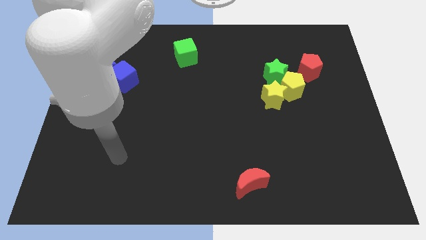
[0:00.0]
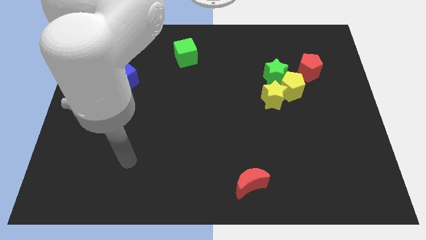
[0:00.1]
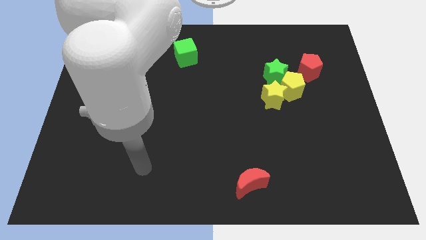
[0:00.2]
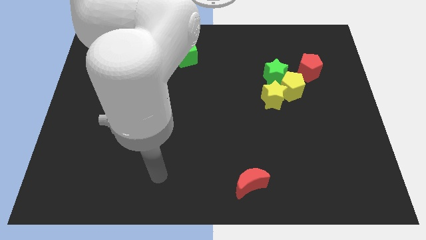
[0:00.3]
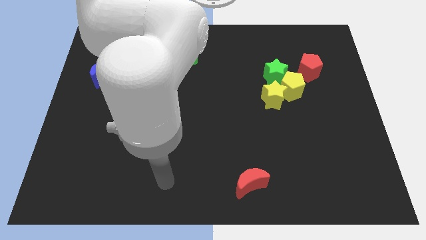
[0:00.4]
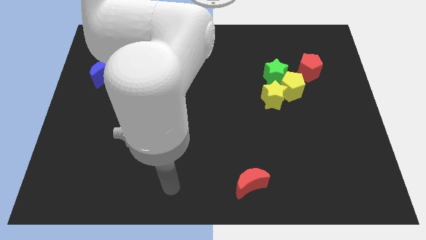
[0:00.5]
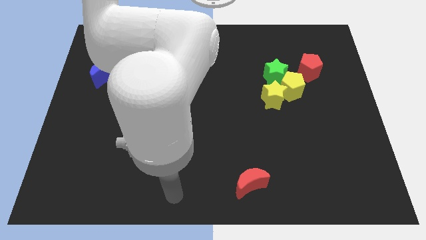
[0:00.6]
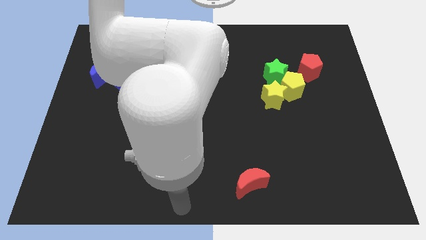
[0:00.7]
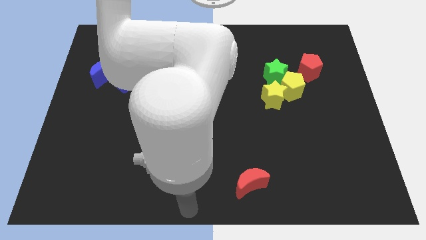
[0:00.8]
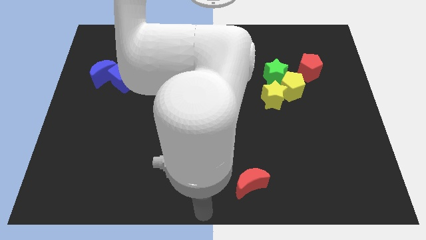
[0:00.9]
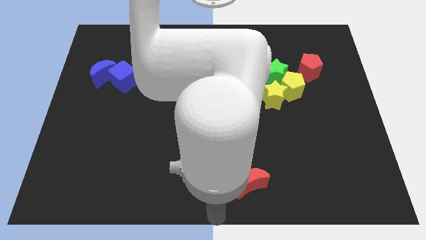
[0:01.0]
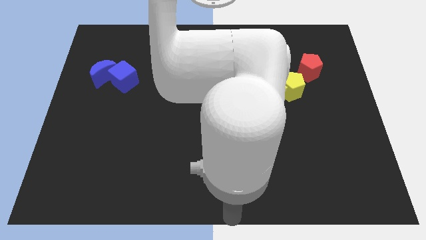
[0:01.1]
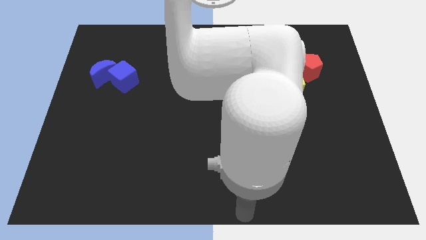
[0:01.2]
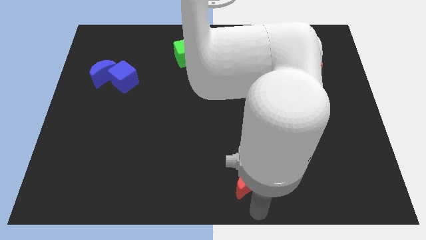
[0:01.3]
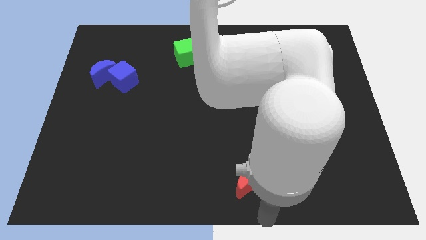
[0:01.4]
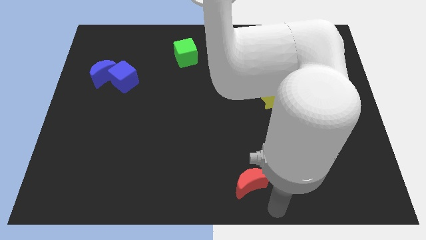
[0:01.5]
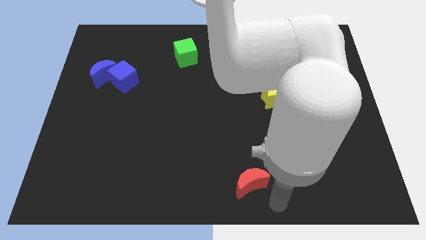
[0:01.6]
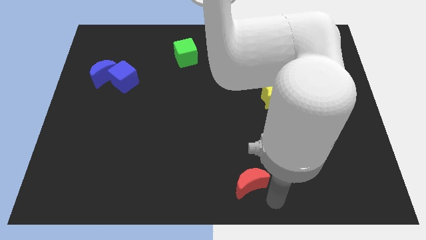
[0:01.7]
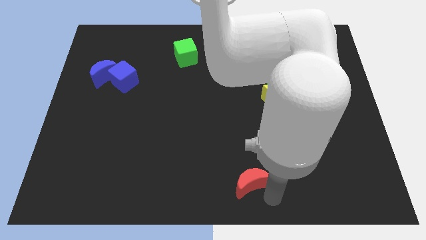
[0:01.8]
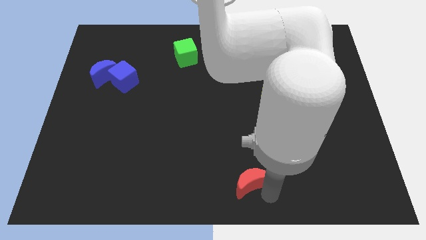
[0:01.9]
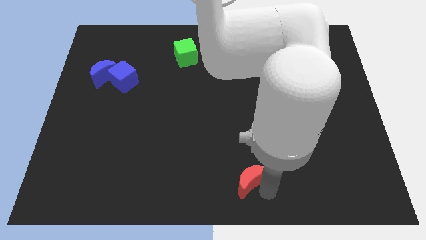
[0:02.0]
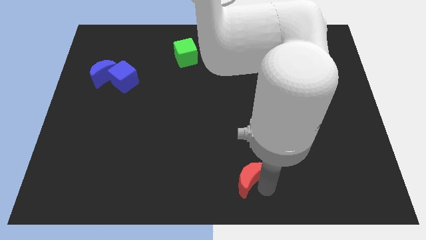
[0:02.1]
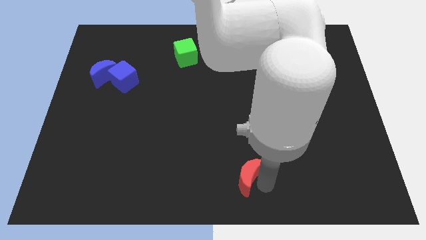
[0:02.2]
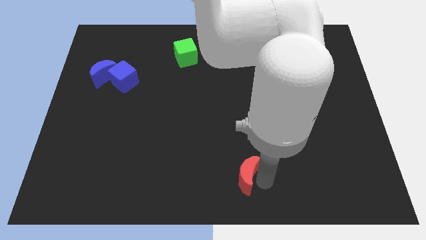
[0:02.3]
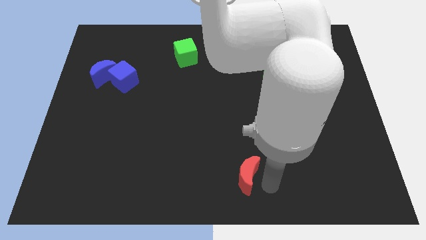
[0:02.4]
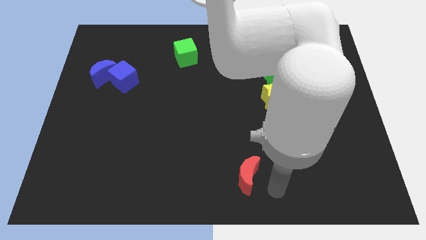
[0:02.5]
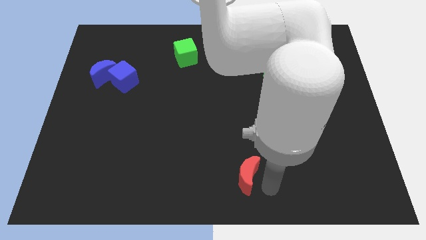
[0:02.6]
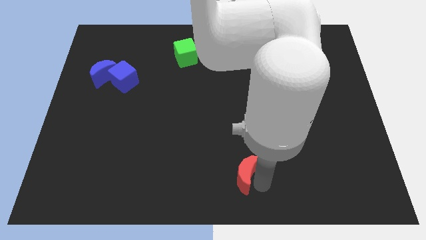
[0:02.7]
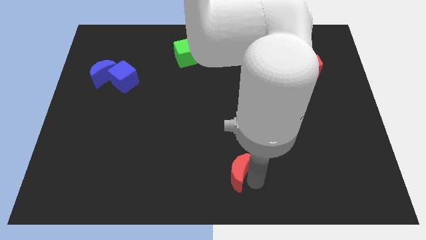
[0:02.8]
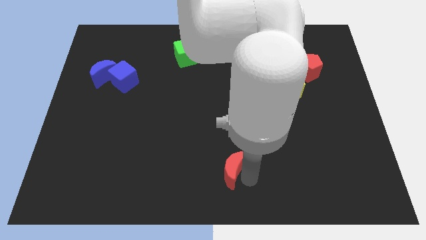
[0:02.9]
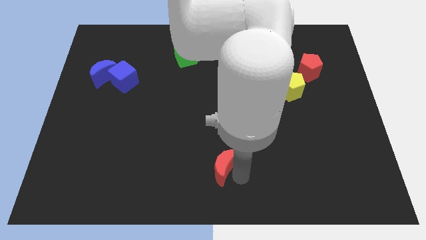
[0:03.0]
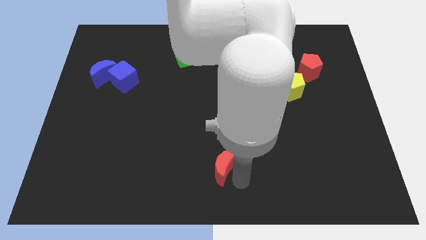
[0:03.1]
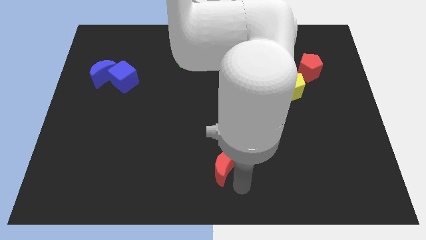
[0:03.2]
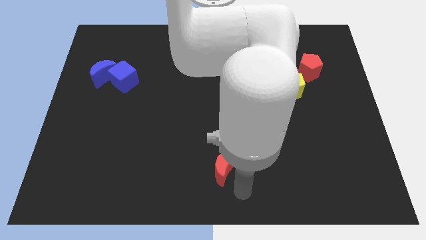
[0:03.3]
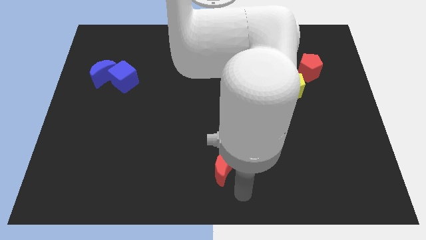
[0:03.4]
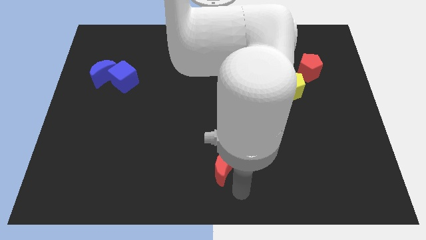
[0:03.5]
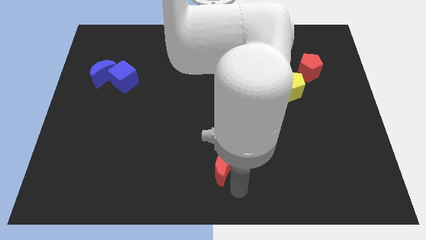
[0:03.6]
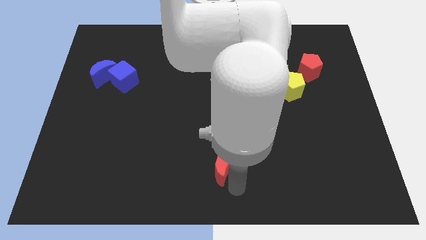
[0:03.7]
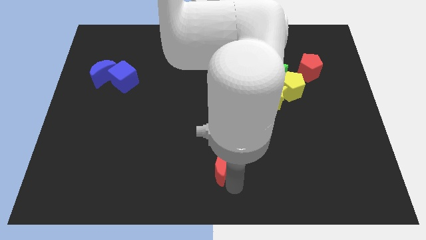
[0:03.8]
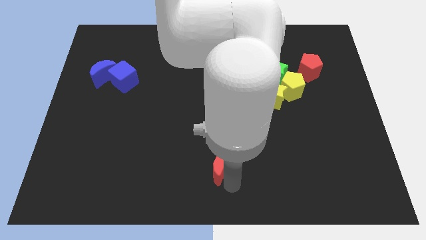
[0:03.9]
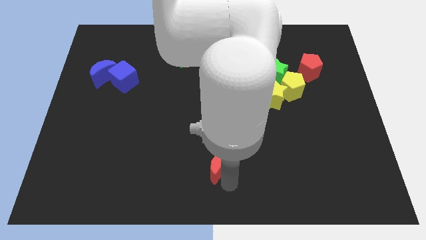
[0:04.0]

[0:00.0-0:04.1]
push the red moon up and left diagonally a little

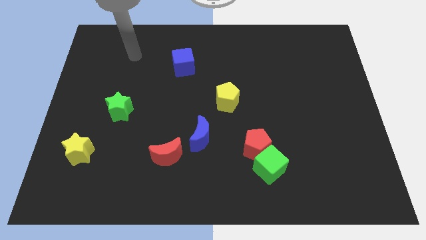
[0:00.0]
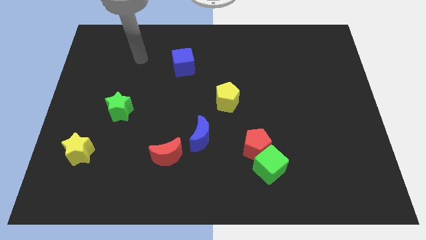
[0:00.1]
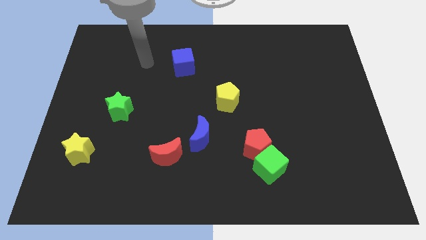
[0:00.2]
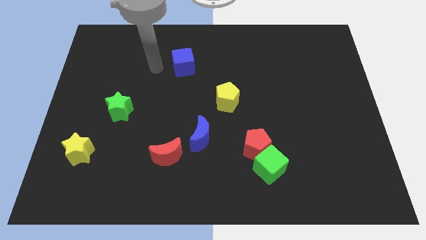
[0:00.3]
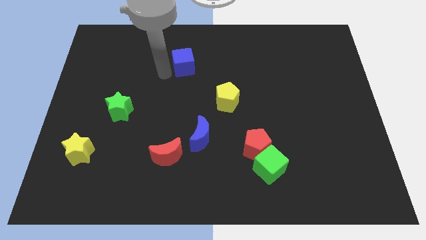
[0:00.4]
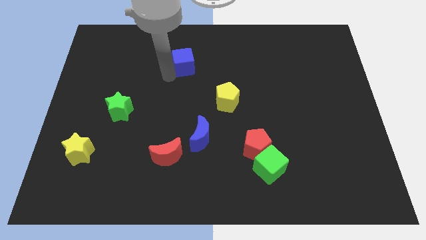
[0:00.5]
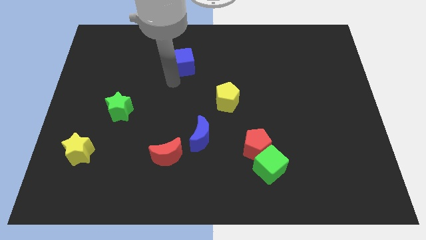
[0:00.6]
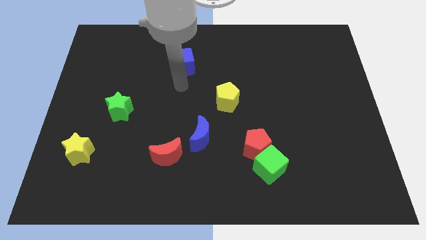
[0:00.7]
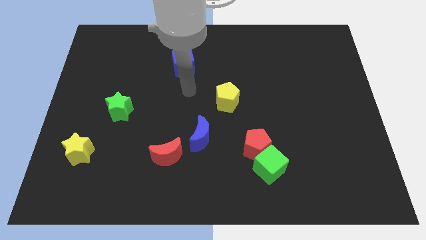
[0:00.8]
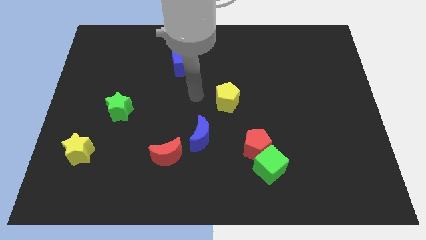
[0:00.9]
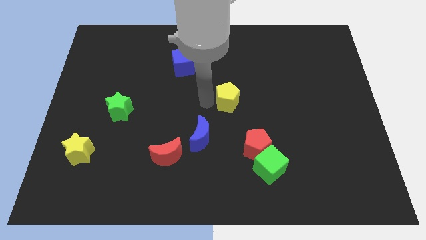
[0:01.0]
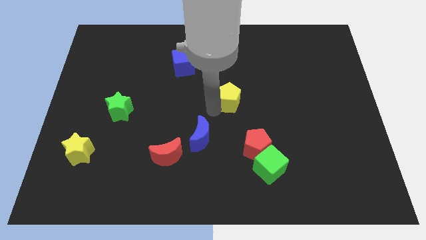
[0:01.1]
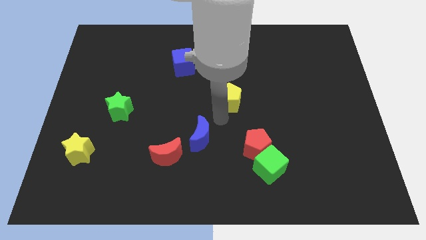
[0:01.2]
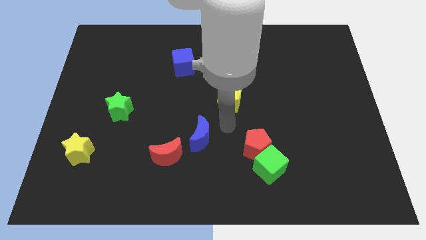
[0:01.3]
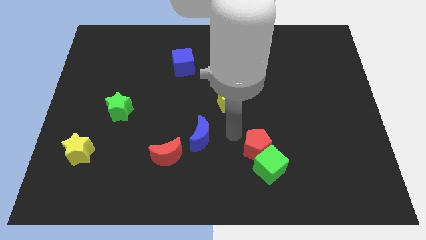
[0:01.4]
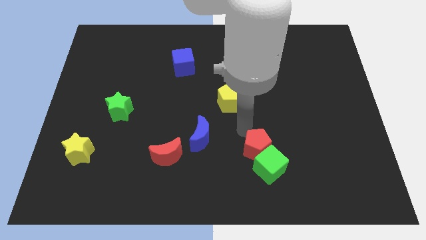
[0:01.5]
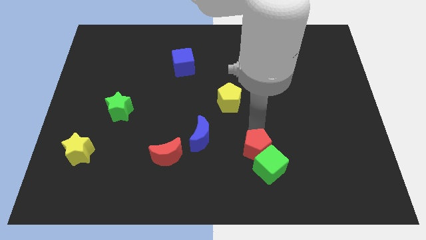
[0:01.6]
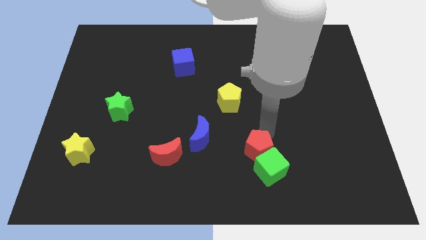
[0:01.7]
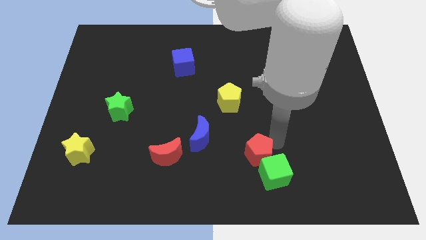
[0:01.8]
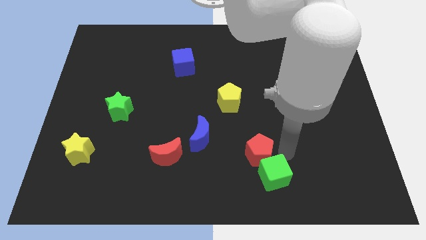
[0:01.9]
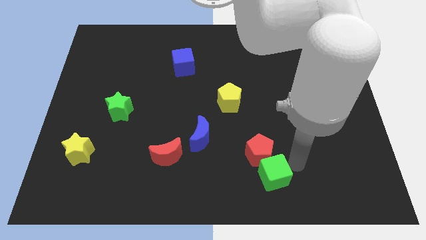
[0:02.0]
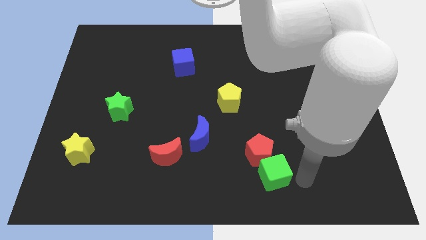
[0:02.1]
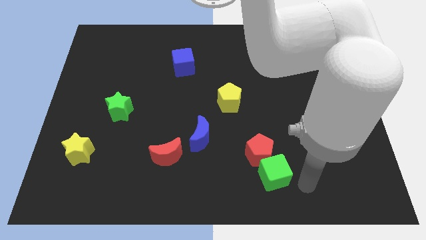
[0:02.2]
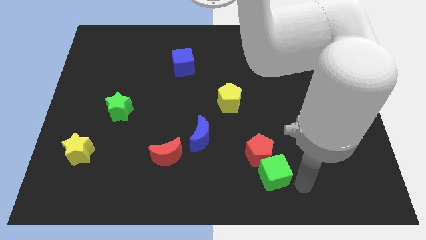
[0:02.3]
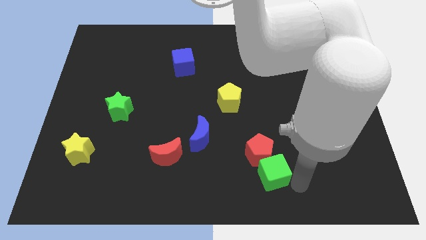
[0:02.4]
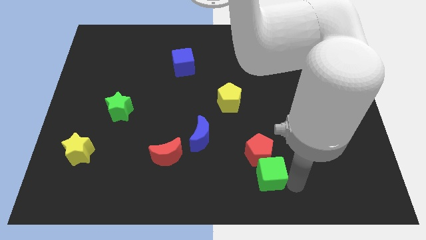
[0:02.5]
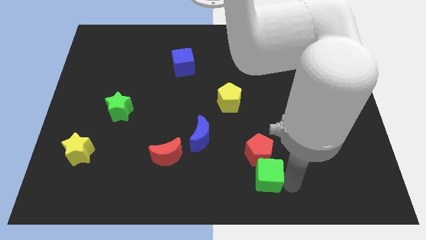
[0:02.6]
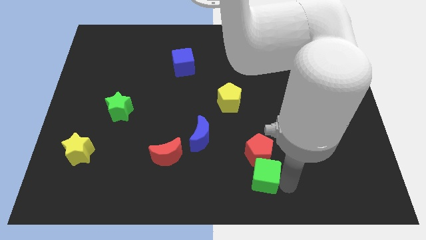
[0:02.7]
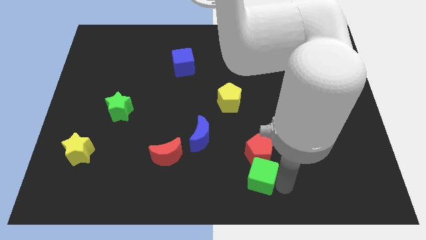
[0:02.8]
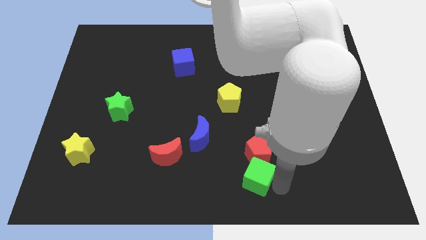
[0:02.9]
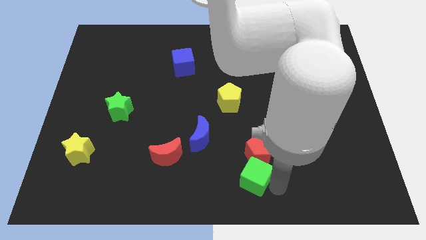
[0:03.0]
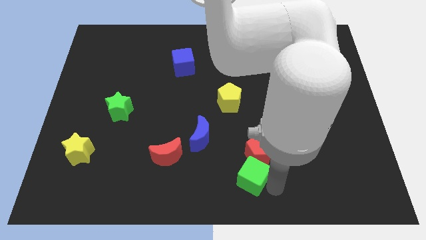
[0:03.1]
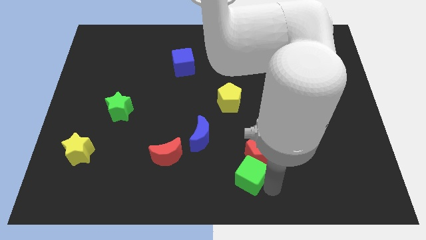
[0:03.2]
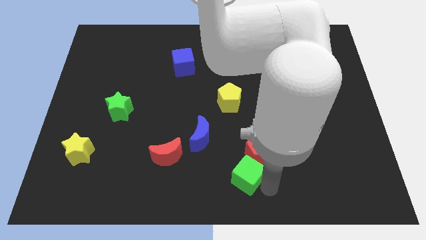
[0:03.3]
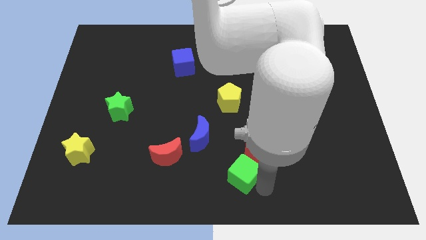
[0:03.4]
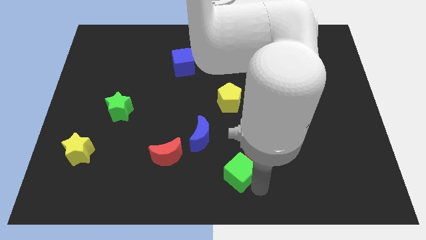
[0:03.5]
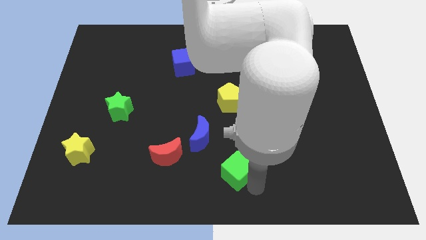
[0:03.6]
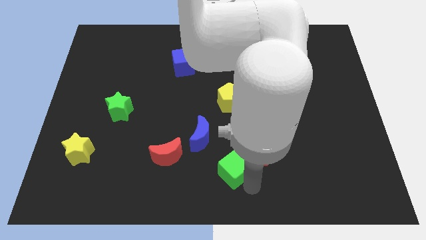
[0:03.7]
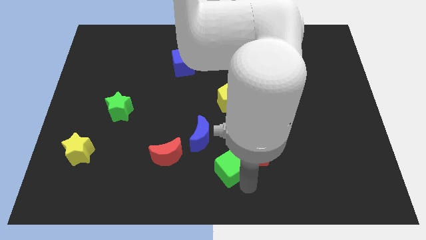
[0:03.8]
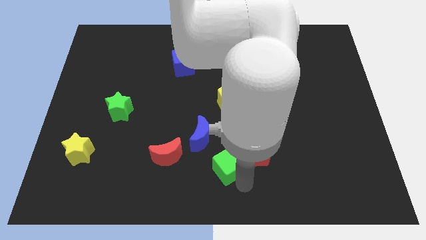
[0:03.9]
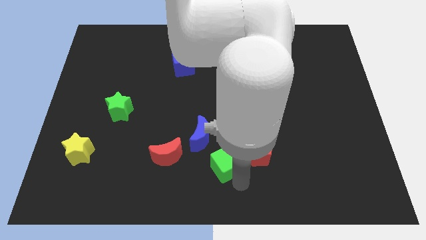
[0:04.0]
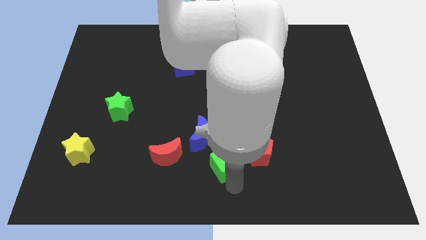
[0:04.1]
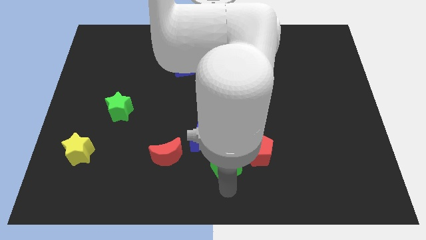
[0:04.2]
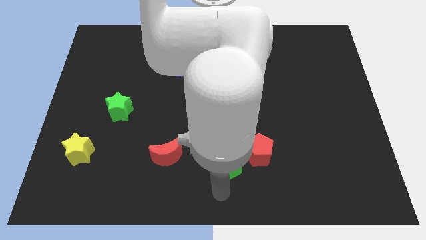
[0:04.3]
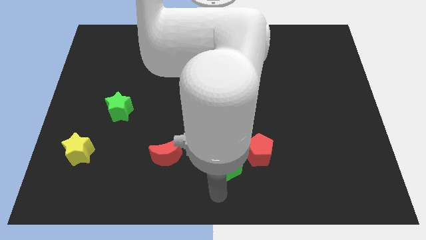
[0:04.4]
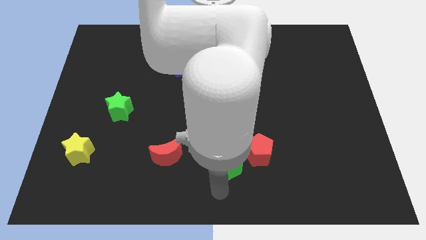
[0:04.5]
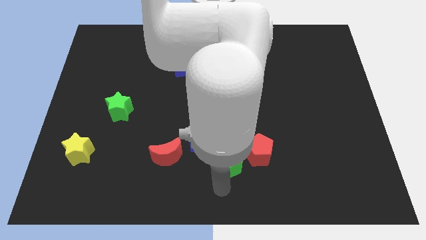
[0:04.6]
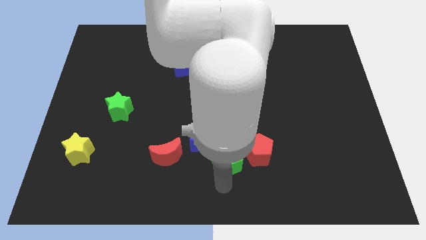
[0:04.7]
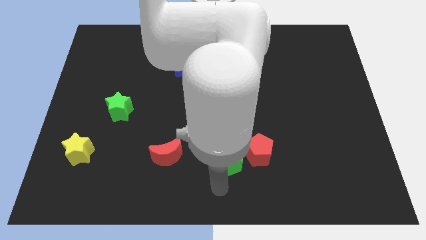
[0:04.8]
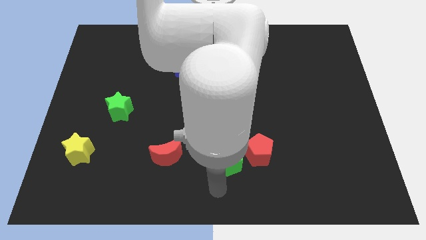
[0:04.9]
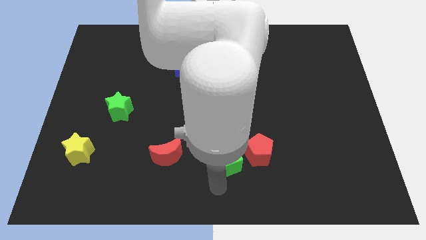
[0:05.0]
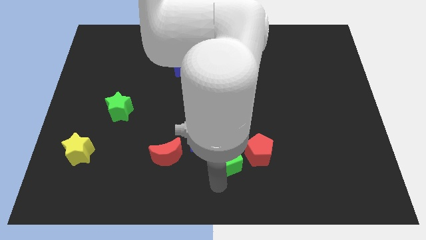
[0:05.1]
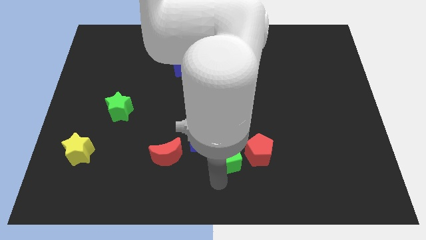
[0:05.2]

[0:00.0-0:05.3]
move the green cube upwards and to the left somewhat
